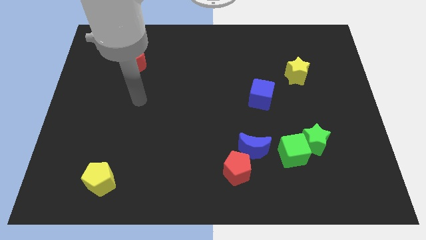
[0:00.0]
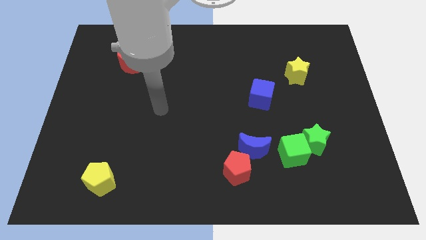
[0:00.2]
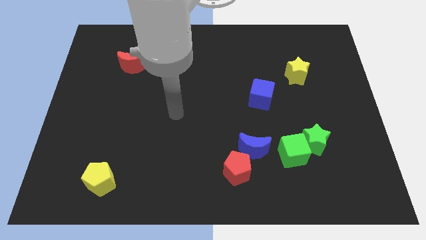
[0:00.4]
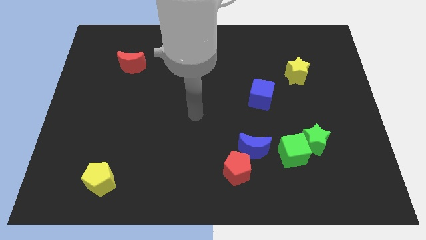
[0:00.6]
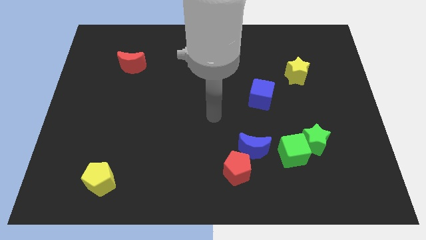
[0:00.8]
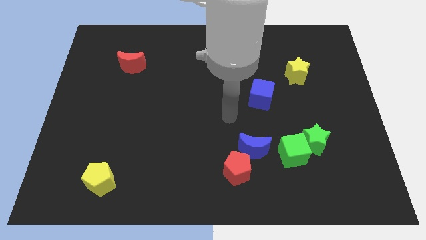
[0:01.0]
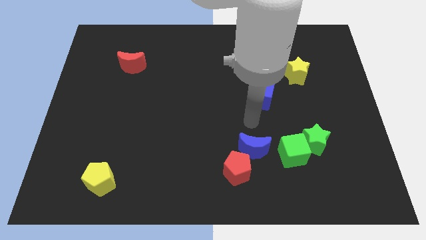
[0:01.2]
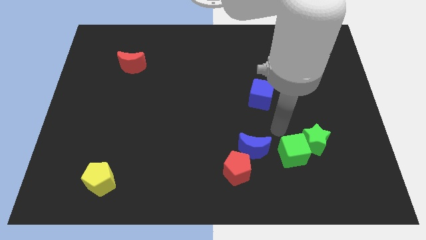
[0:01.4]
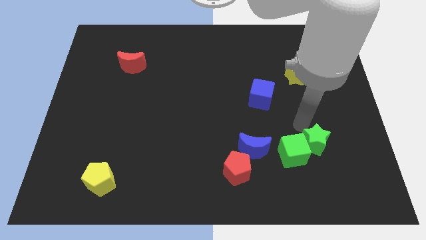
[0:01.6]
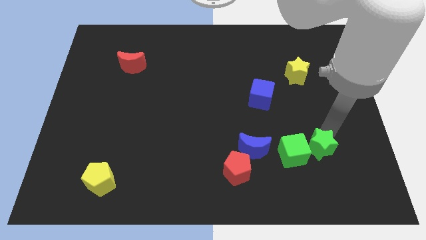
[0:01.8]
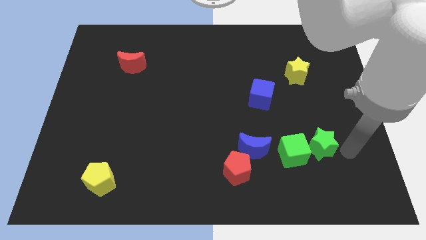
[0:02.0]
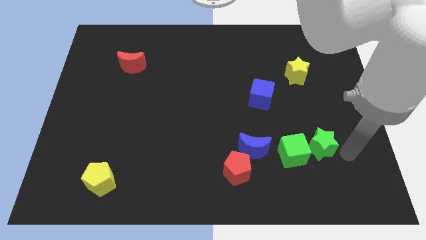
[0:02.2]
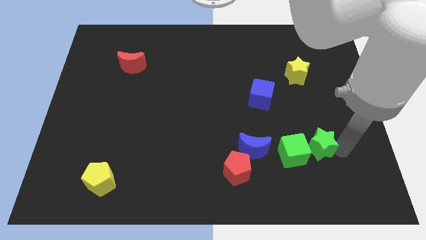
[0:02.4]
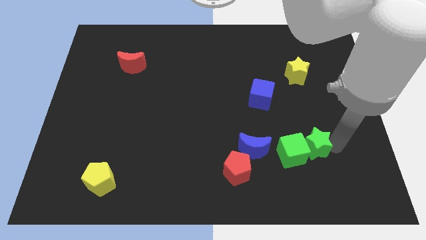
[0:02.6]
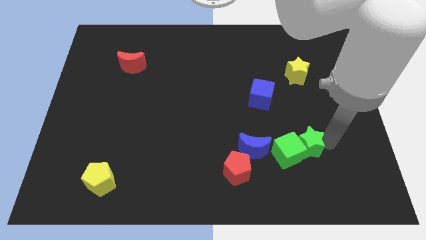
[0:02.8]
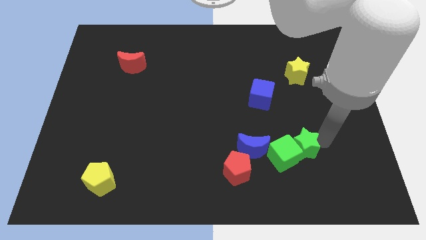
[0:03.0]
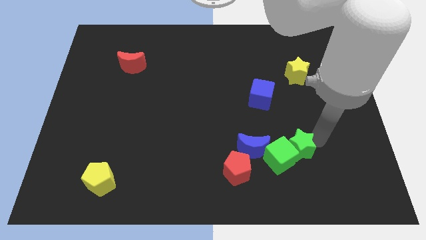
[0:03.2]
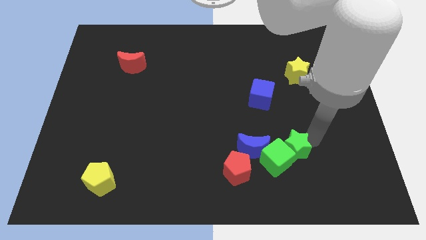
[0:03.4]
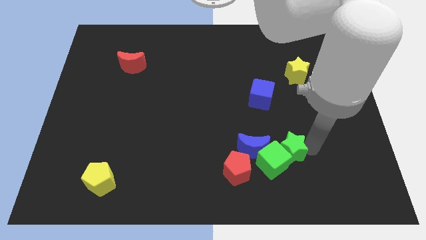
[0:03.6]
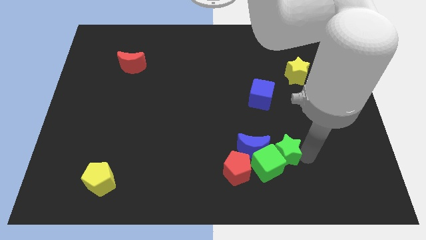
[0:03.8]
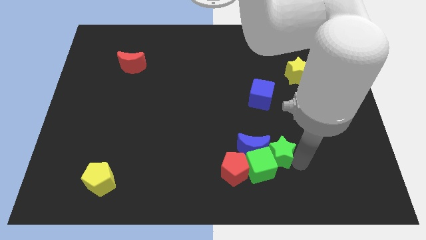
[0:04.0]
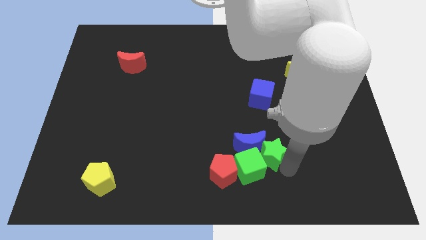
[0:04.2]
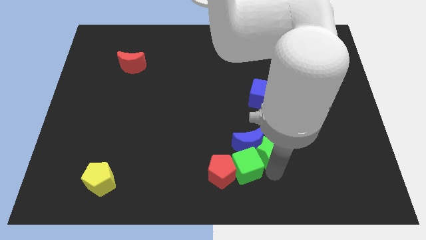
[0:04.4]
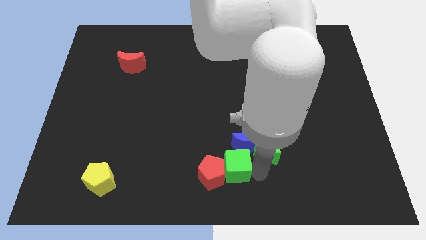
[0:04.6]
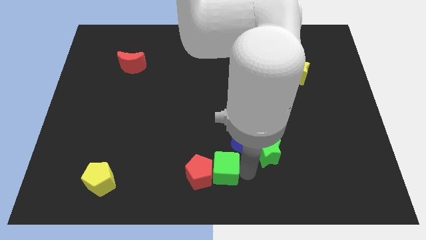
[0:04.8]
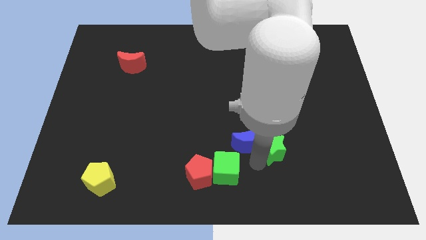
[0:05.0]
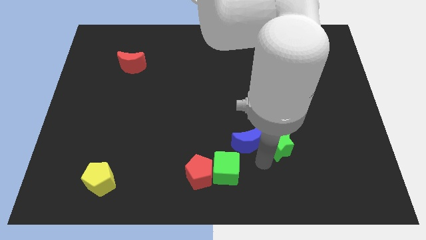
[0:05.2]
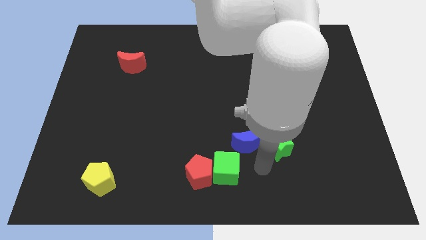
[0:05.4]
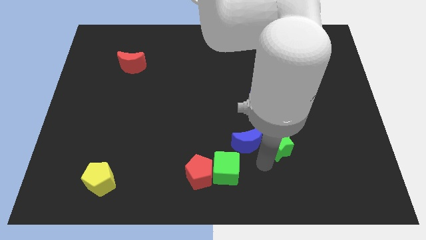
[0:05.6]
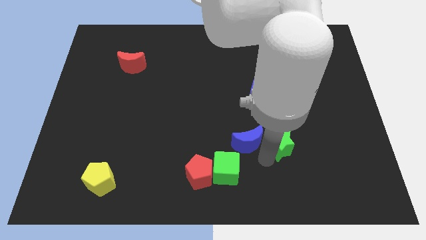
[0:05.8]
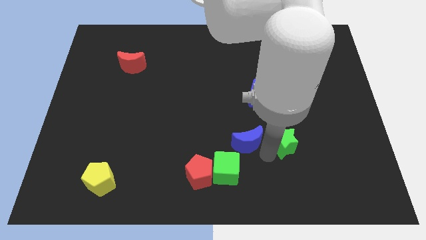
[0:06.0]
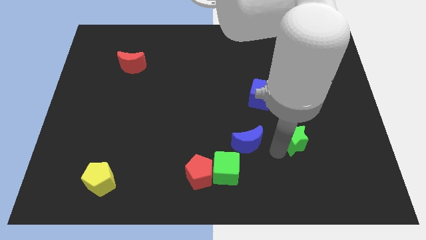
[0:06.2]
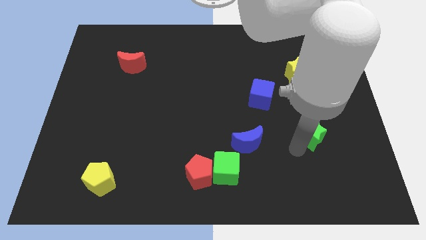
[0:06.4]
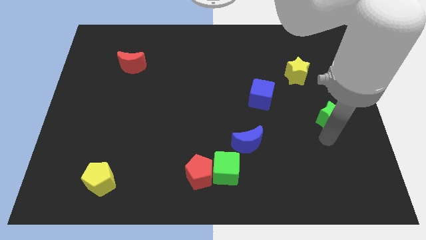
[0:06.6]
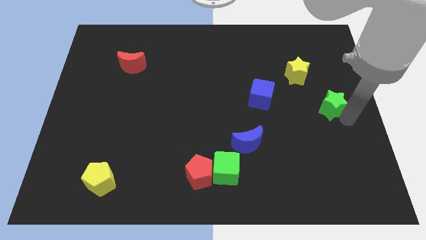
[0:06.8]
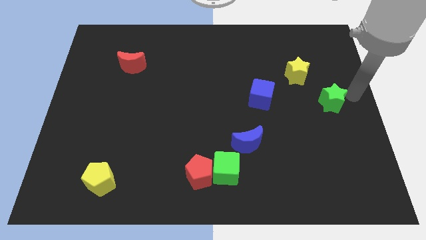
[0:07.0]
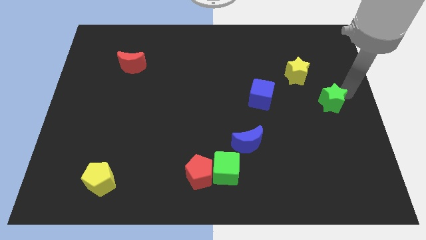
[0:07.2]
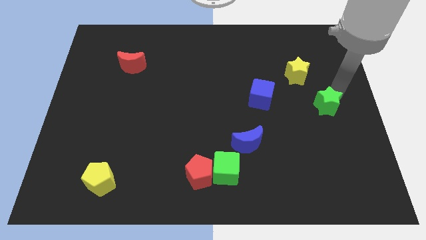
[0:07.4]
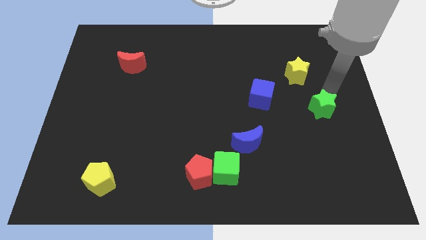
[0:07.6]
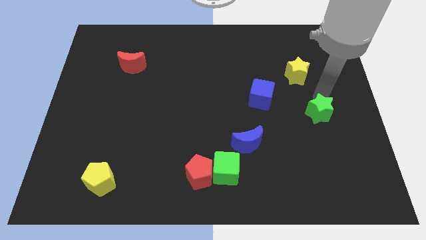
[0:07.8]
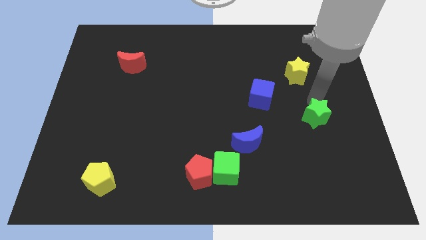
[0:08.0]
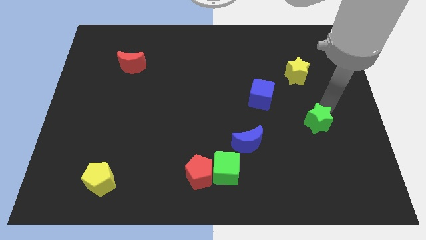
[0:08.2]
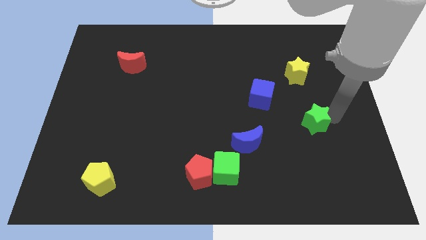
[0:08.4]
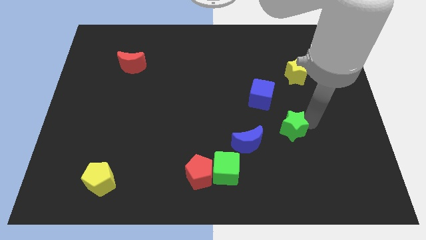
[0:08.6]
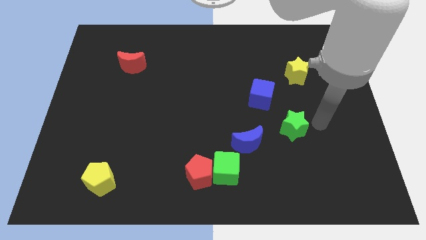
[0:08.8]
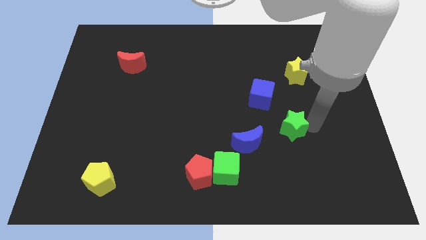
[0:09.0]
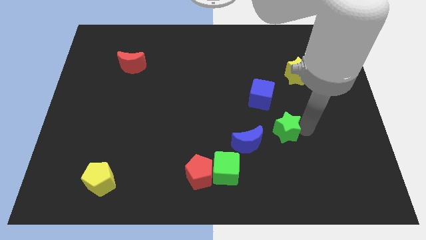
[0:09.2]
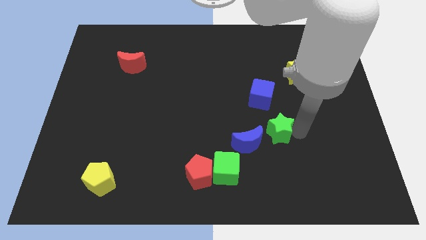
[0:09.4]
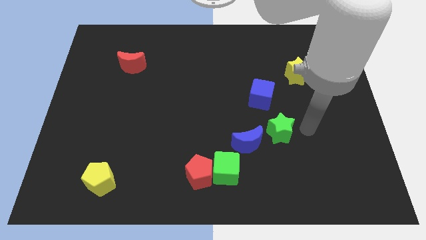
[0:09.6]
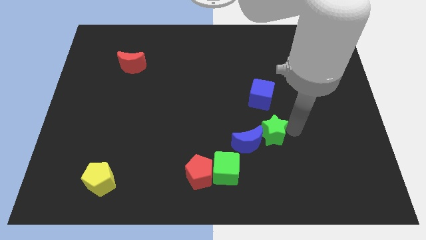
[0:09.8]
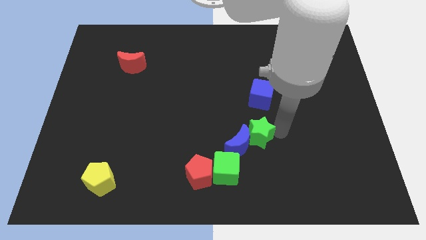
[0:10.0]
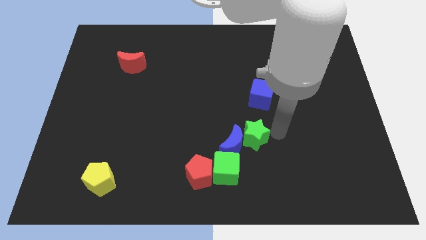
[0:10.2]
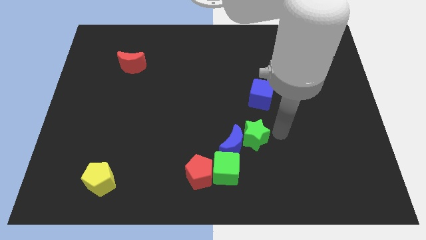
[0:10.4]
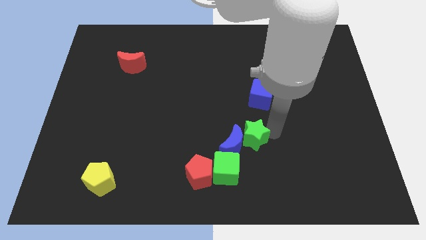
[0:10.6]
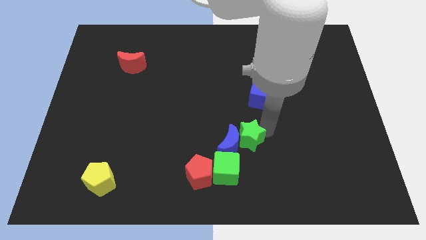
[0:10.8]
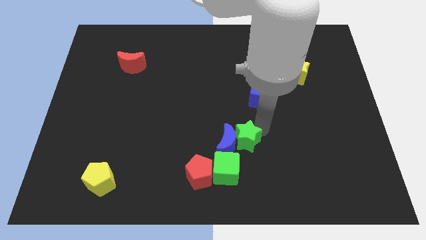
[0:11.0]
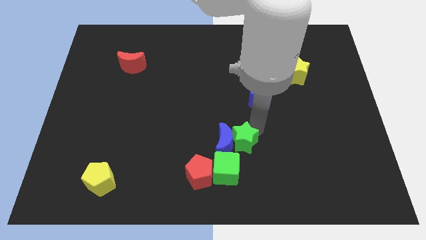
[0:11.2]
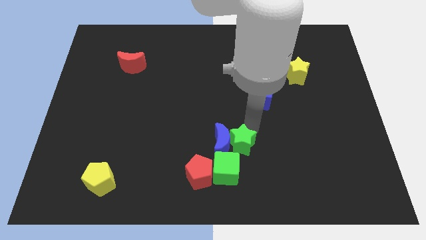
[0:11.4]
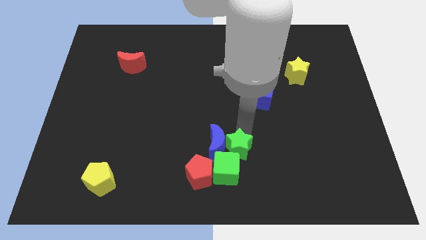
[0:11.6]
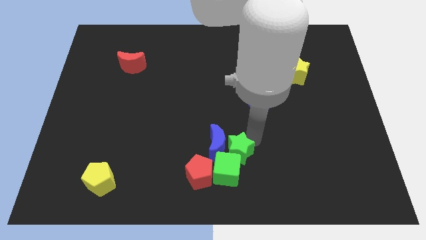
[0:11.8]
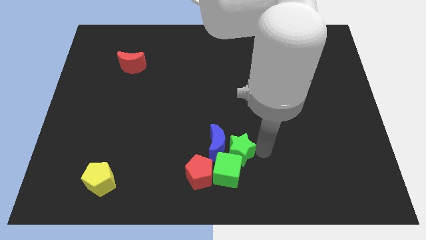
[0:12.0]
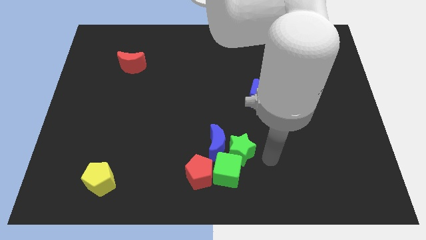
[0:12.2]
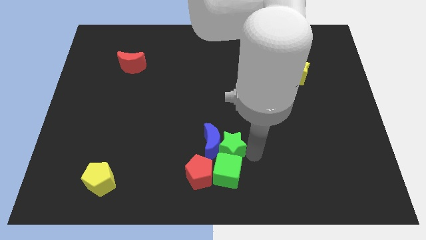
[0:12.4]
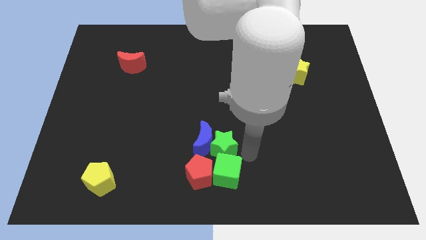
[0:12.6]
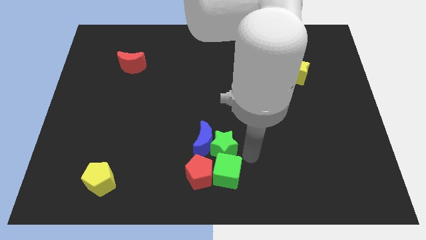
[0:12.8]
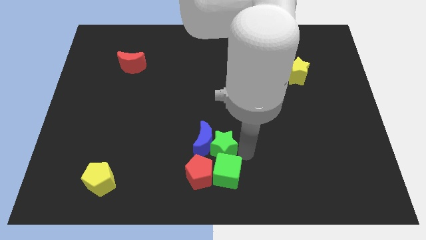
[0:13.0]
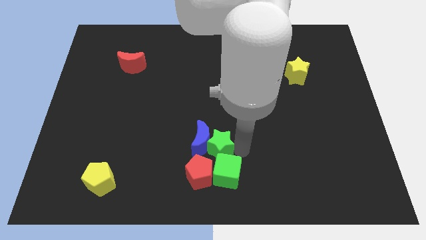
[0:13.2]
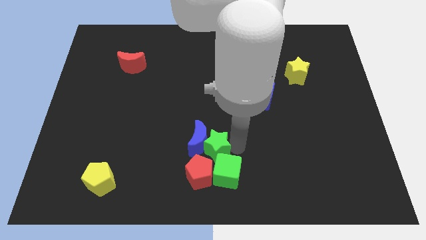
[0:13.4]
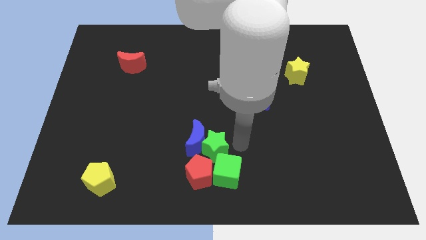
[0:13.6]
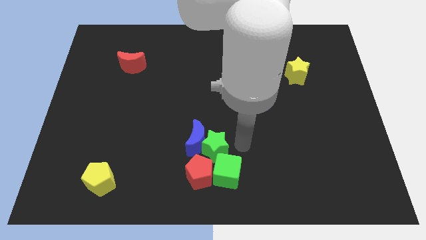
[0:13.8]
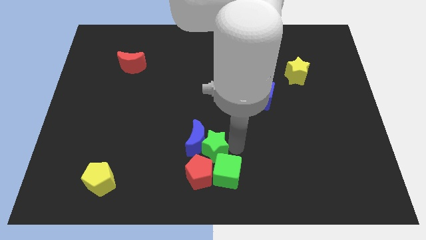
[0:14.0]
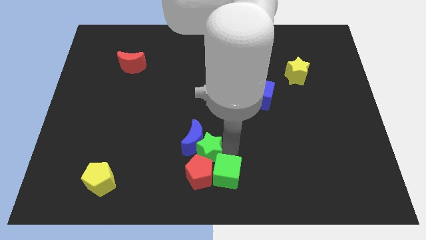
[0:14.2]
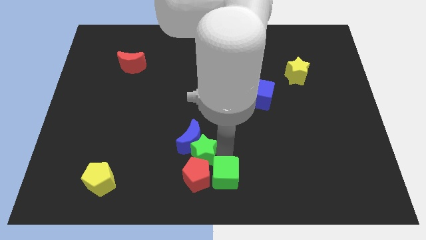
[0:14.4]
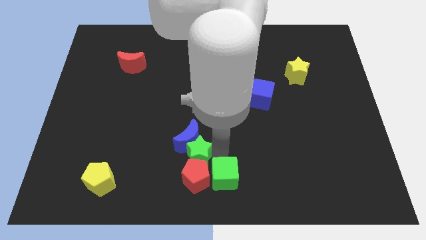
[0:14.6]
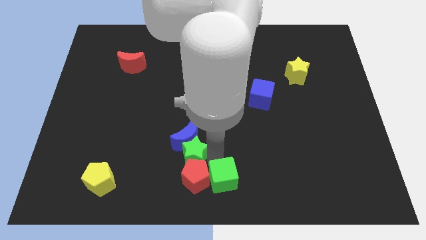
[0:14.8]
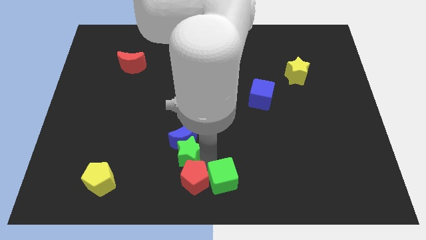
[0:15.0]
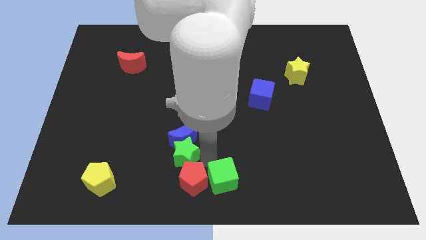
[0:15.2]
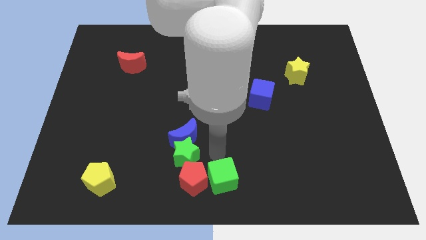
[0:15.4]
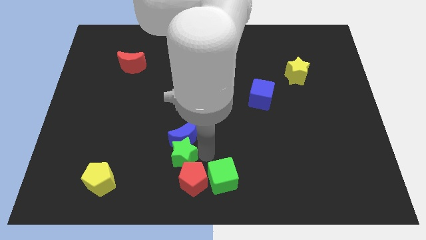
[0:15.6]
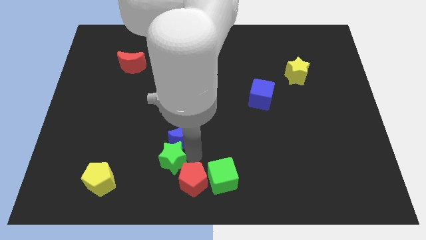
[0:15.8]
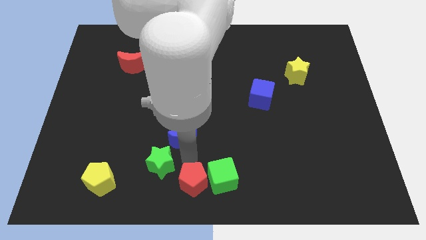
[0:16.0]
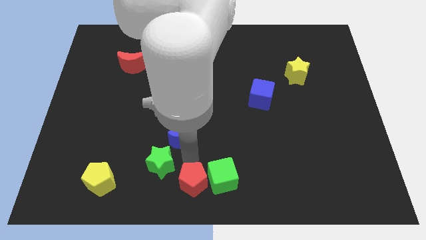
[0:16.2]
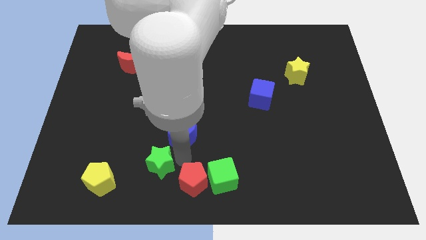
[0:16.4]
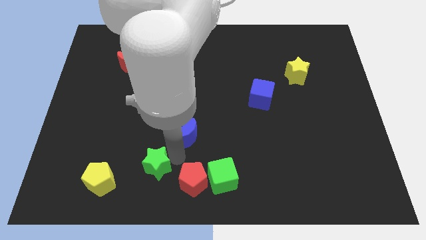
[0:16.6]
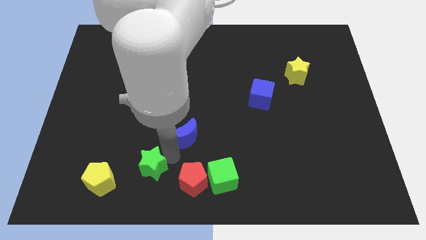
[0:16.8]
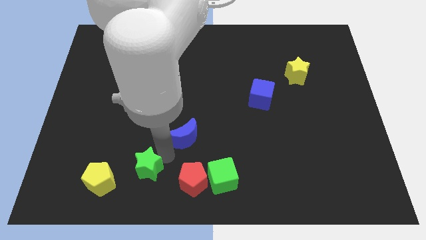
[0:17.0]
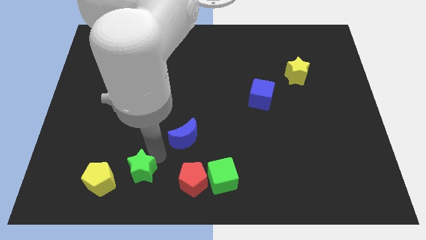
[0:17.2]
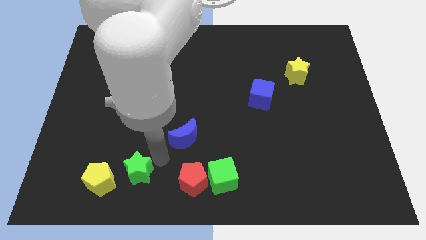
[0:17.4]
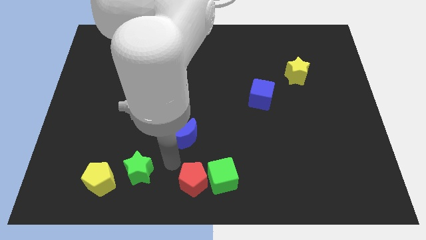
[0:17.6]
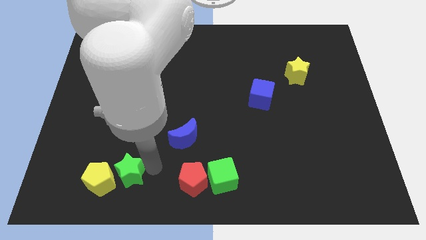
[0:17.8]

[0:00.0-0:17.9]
put the green star towards the yellow pentagon
